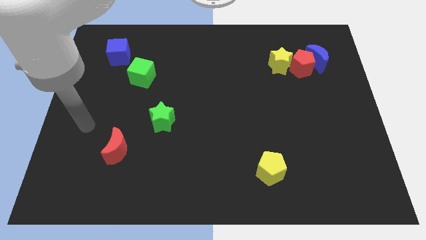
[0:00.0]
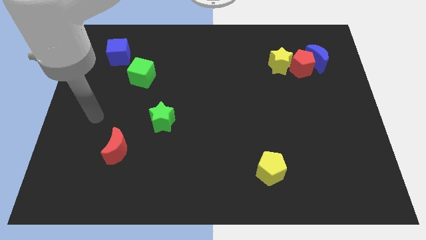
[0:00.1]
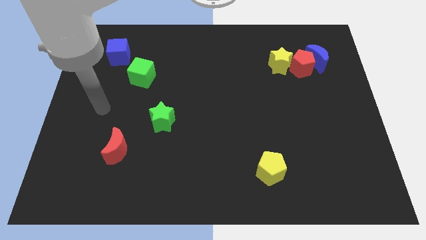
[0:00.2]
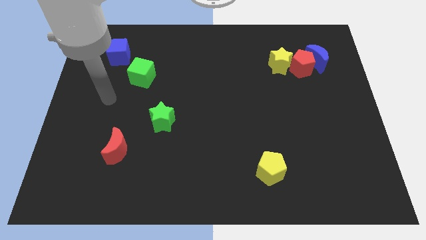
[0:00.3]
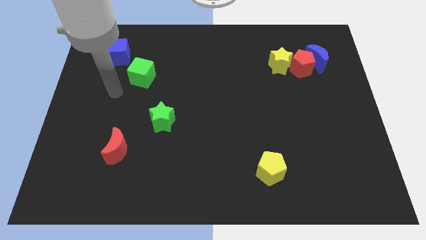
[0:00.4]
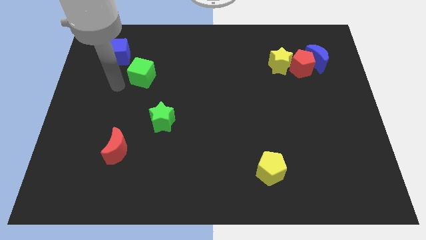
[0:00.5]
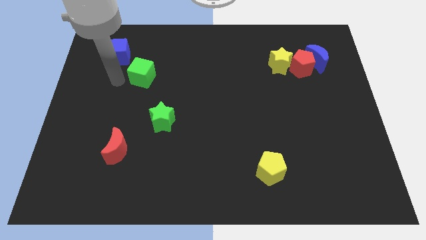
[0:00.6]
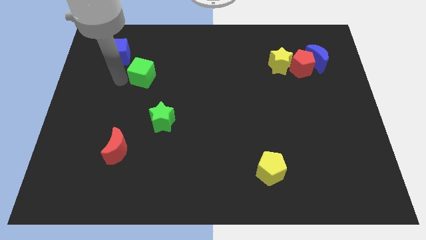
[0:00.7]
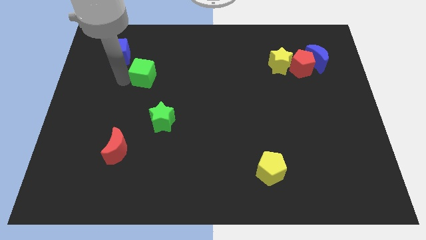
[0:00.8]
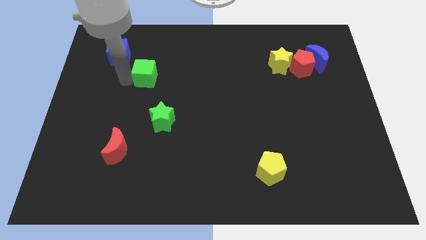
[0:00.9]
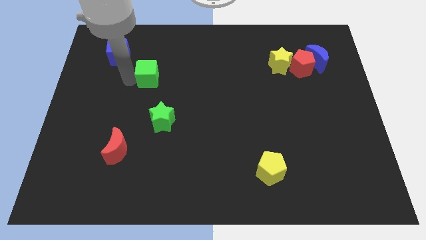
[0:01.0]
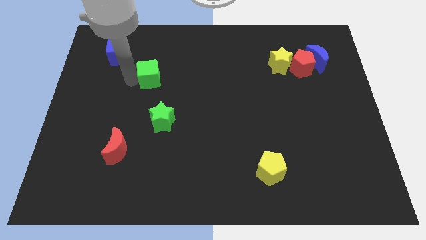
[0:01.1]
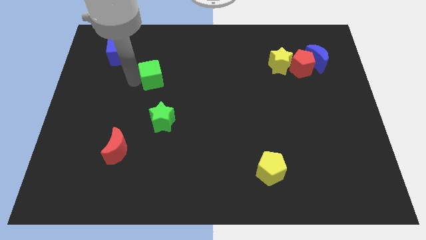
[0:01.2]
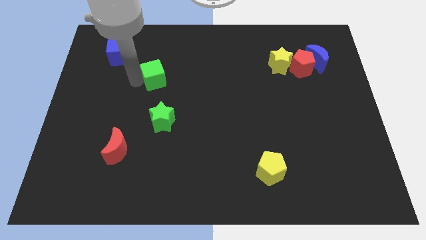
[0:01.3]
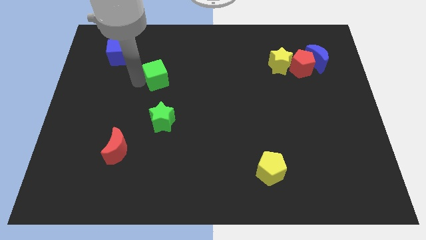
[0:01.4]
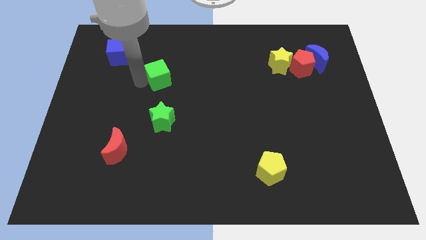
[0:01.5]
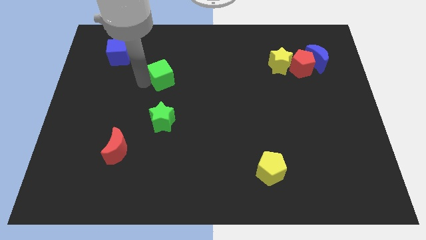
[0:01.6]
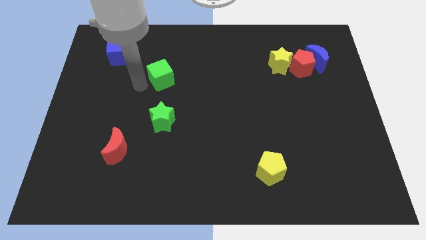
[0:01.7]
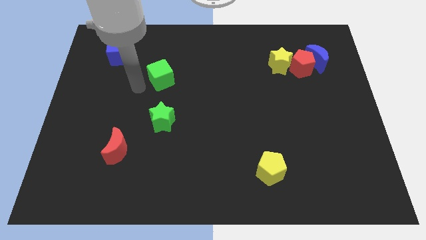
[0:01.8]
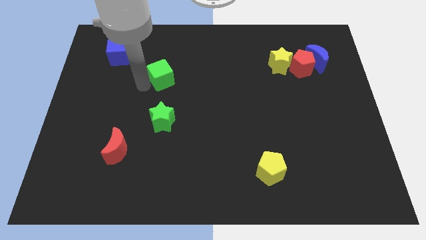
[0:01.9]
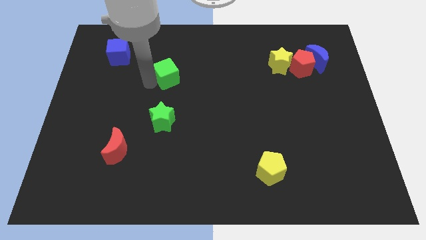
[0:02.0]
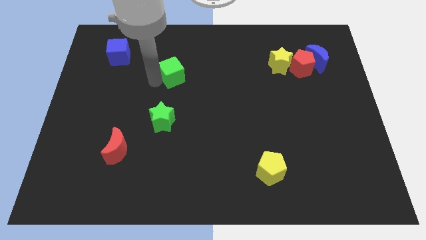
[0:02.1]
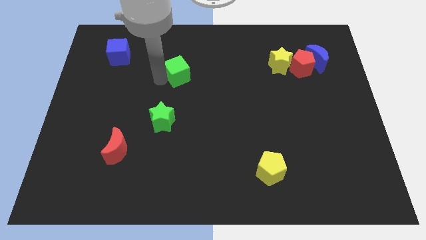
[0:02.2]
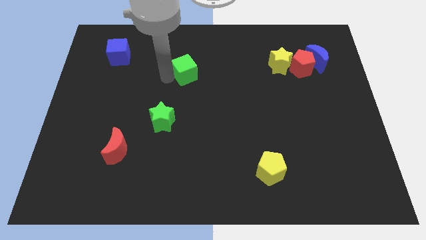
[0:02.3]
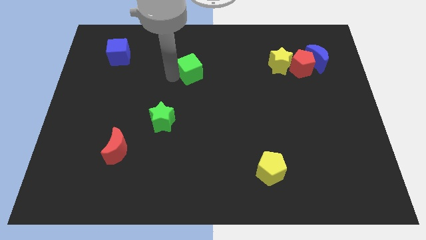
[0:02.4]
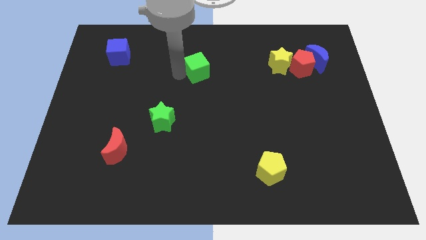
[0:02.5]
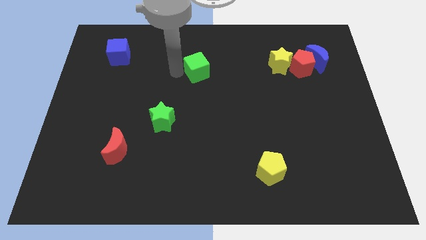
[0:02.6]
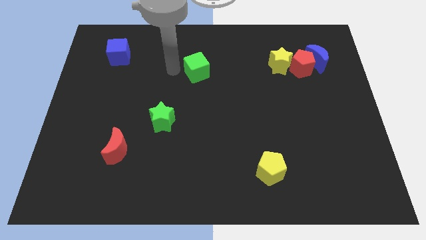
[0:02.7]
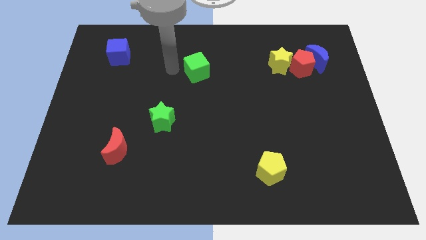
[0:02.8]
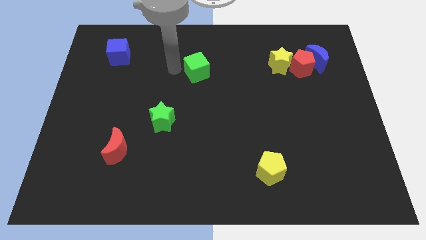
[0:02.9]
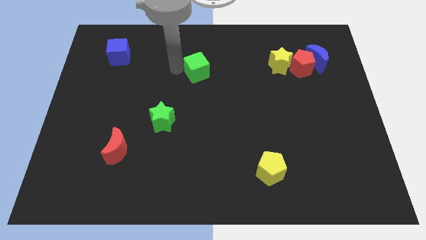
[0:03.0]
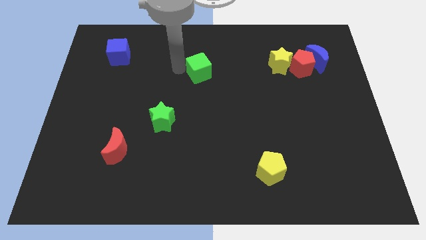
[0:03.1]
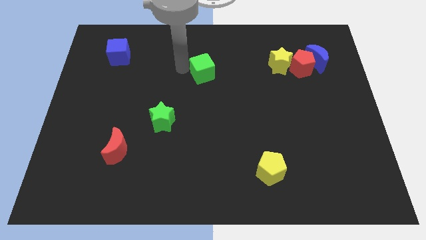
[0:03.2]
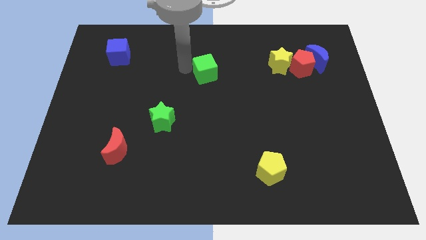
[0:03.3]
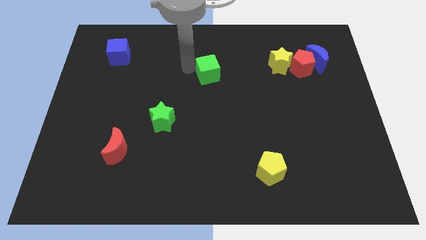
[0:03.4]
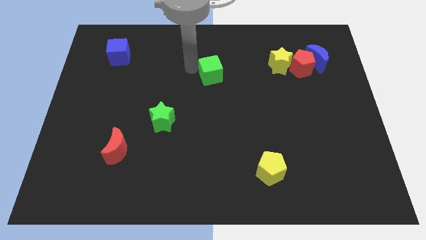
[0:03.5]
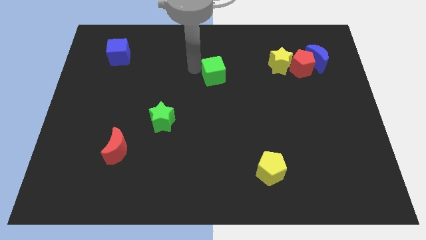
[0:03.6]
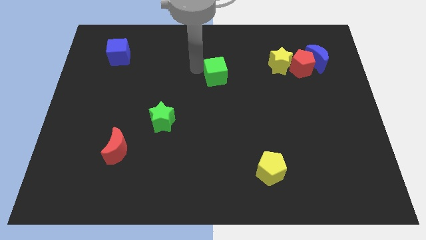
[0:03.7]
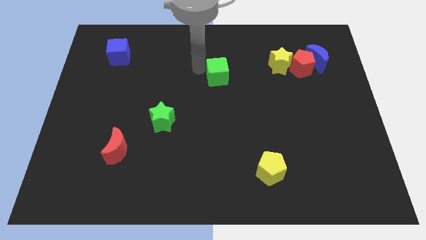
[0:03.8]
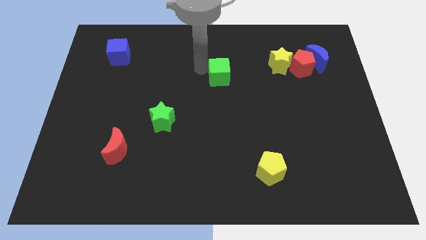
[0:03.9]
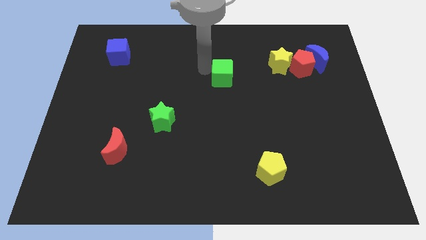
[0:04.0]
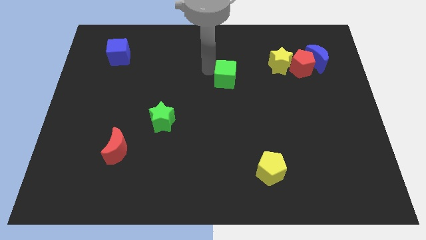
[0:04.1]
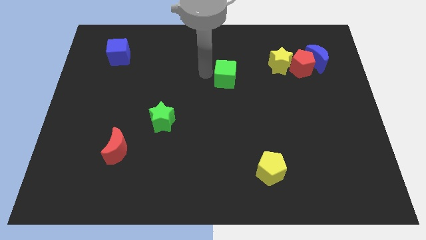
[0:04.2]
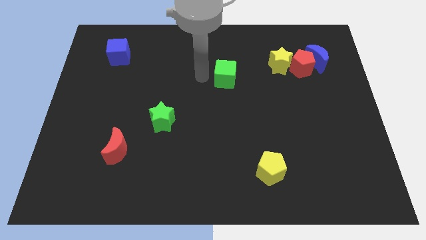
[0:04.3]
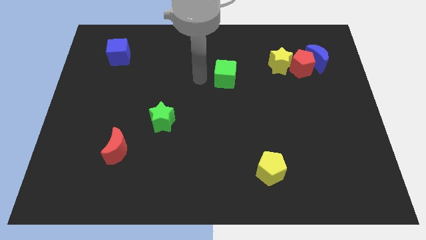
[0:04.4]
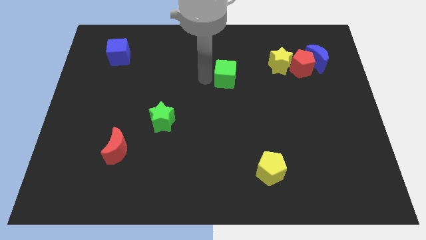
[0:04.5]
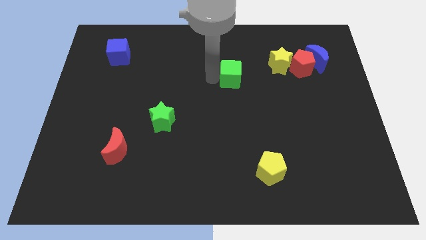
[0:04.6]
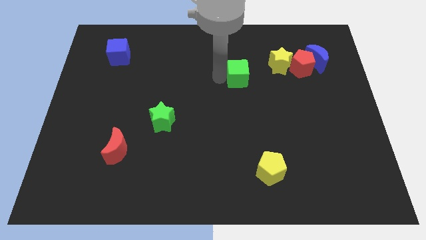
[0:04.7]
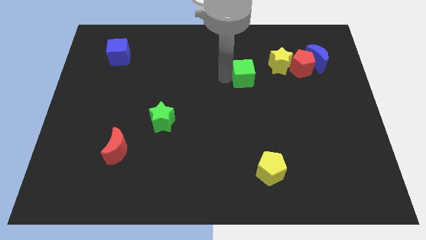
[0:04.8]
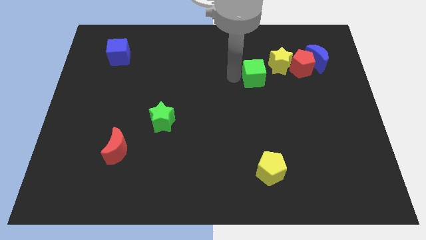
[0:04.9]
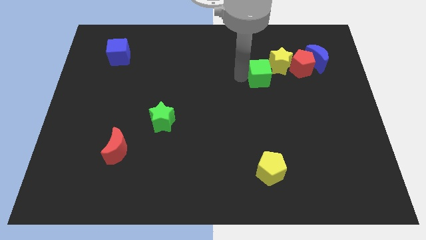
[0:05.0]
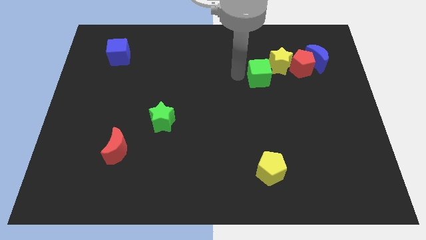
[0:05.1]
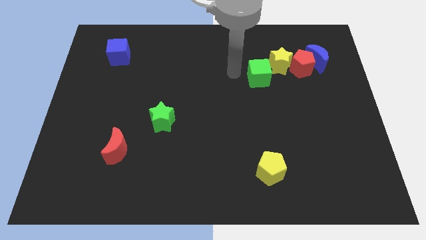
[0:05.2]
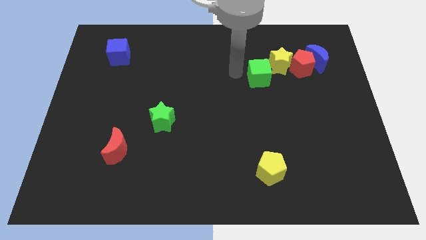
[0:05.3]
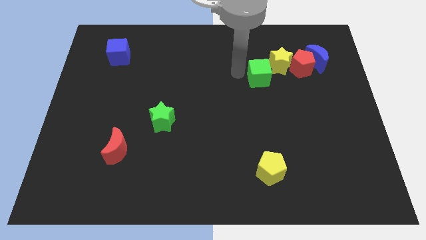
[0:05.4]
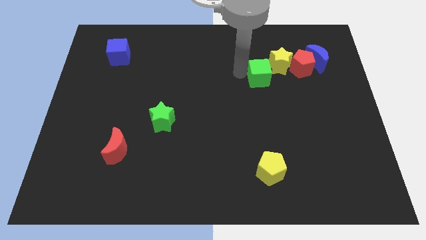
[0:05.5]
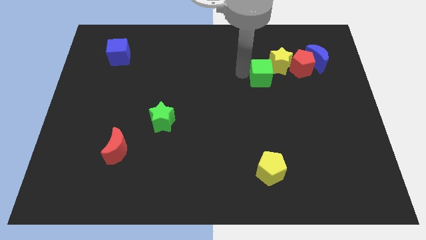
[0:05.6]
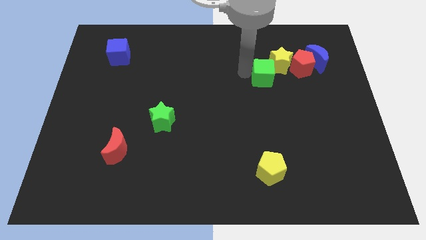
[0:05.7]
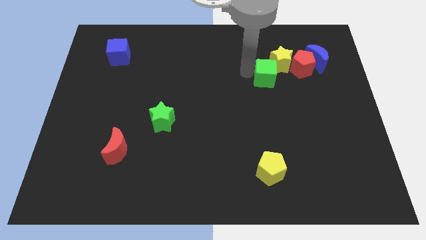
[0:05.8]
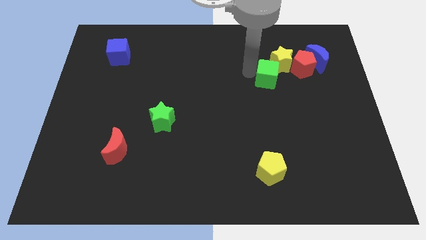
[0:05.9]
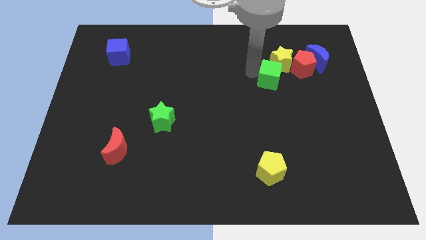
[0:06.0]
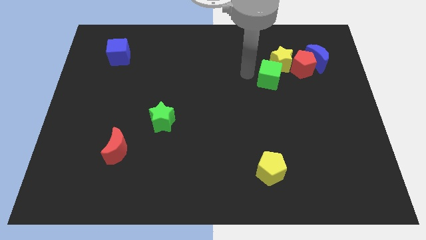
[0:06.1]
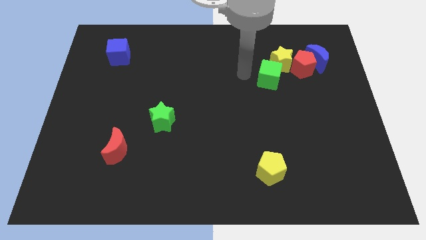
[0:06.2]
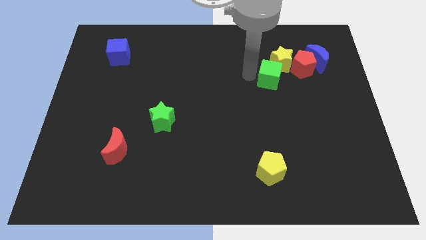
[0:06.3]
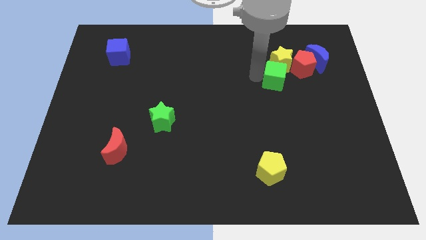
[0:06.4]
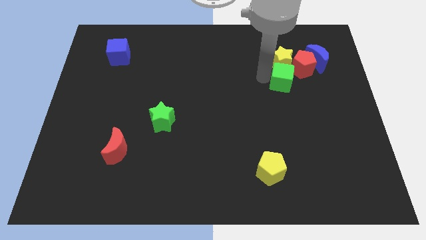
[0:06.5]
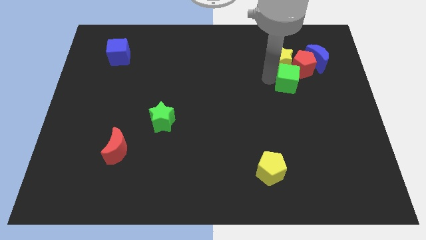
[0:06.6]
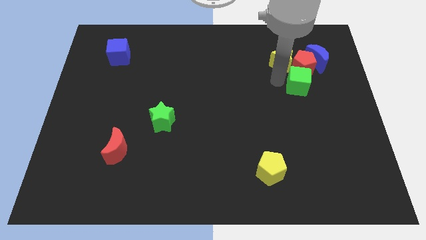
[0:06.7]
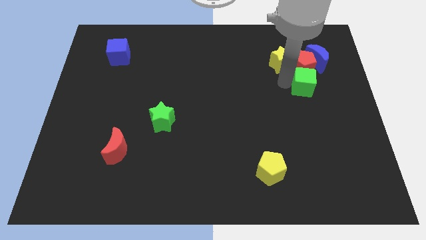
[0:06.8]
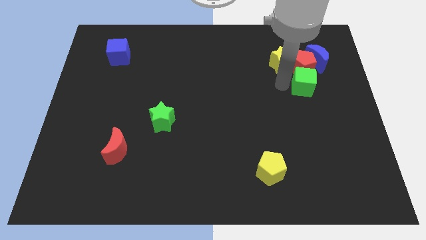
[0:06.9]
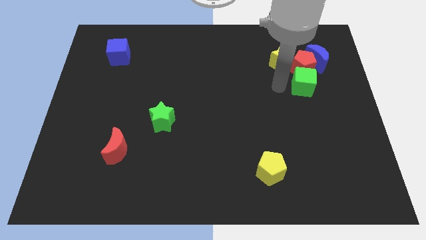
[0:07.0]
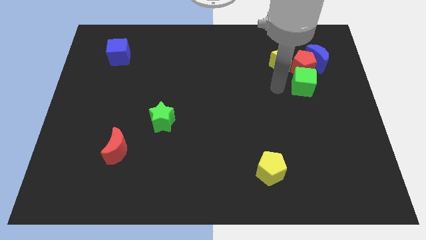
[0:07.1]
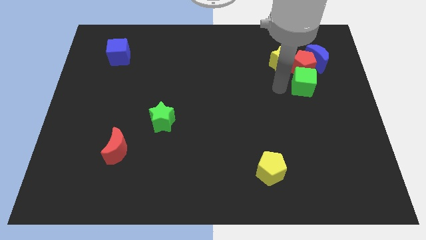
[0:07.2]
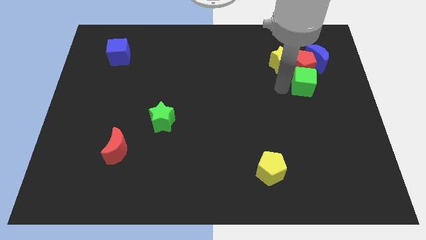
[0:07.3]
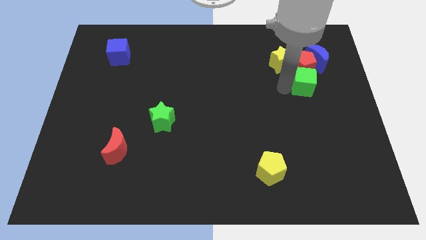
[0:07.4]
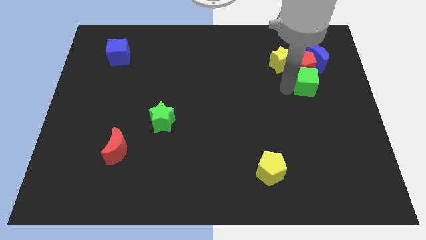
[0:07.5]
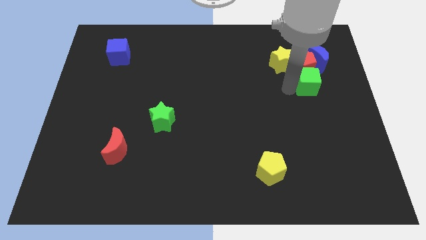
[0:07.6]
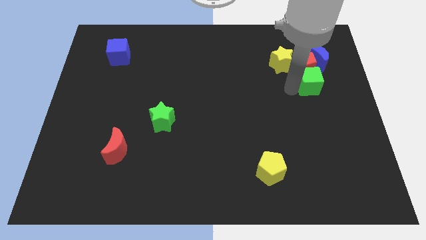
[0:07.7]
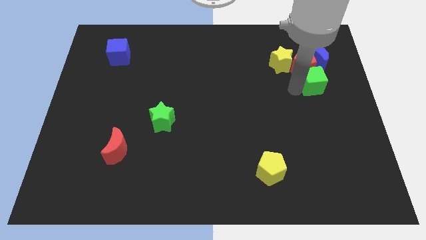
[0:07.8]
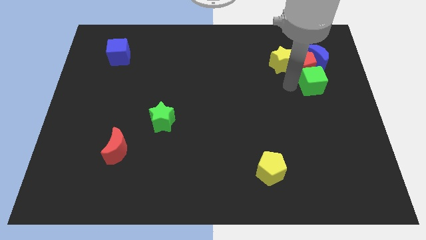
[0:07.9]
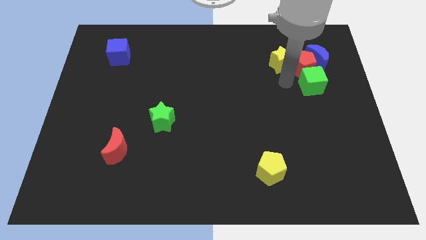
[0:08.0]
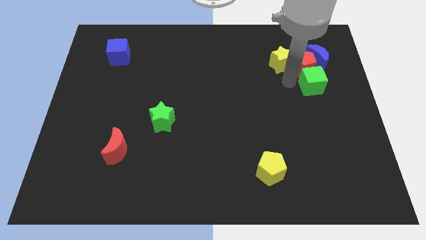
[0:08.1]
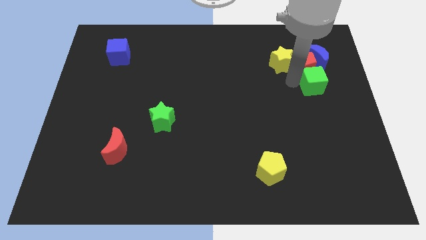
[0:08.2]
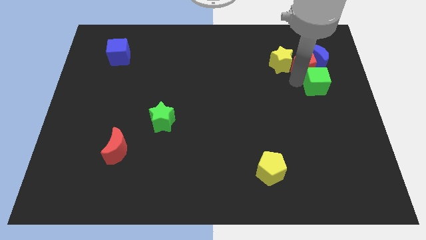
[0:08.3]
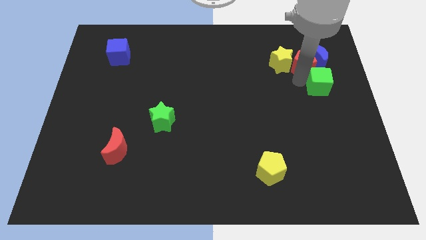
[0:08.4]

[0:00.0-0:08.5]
push the green cube to the right side
